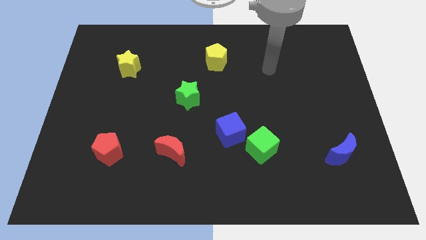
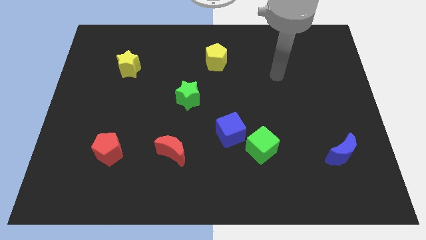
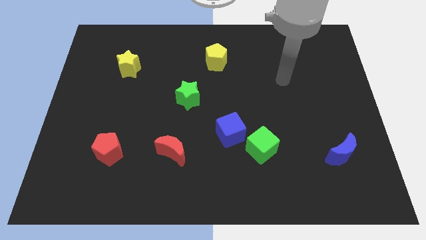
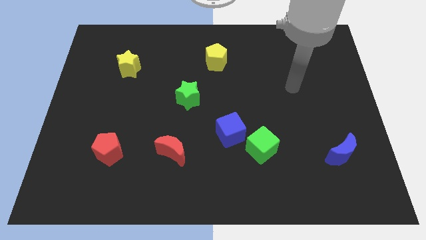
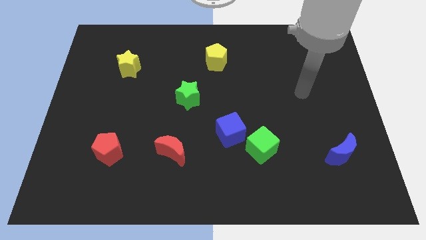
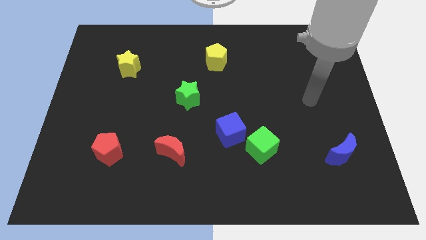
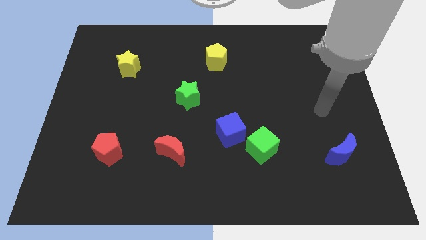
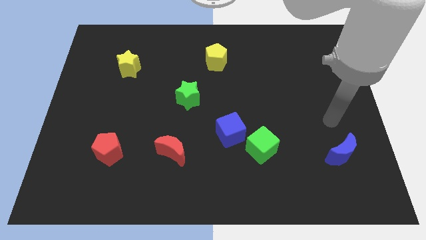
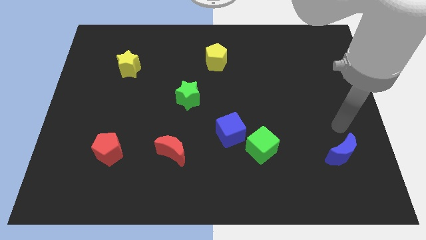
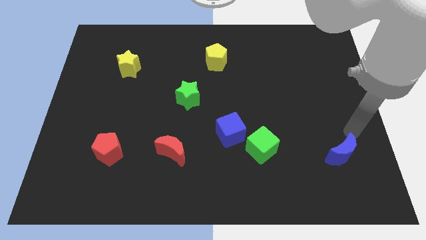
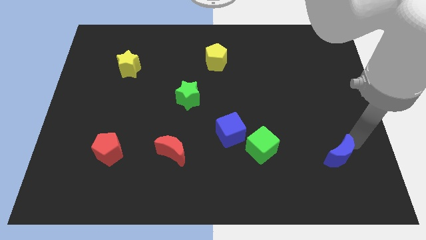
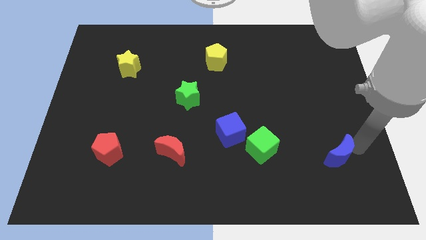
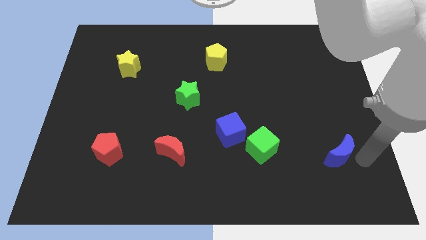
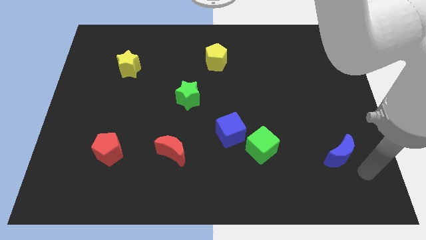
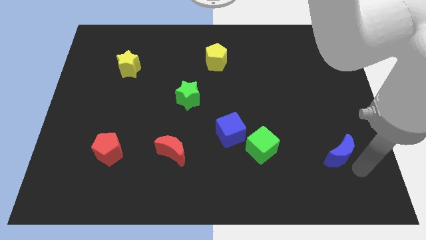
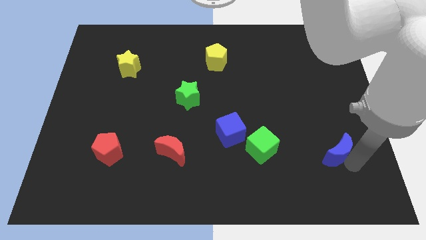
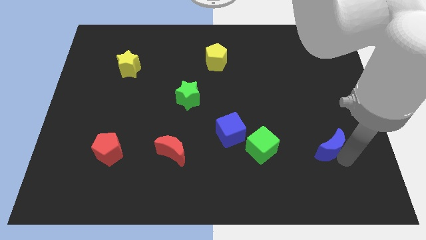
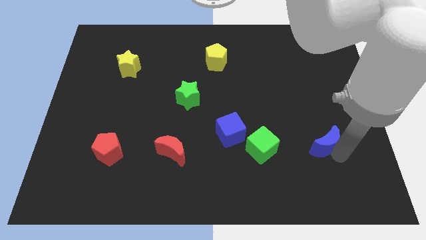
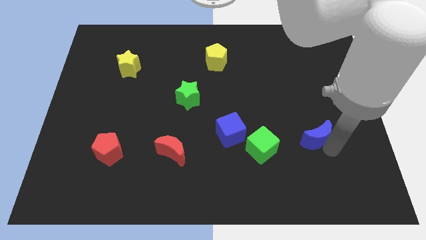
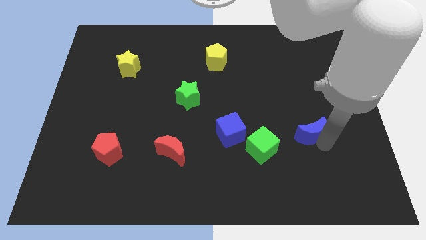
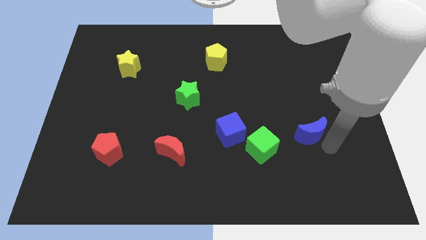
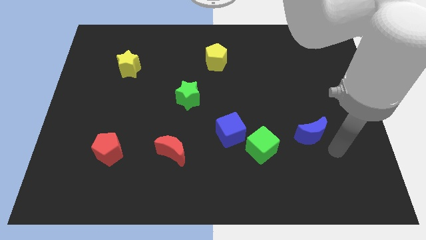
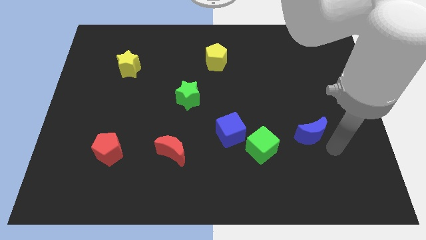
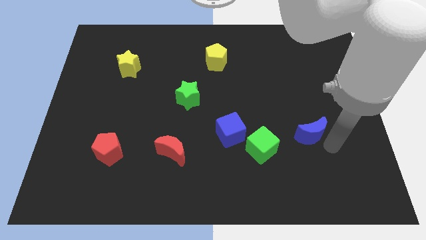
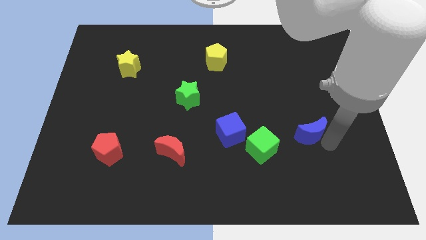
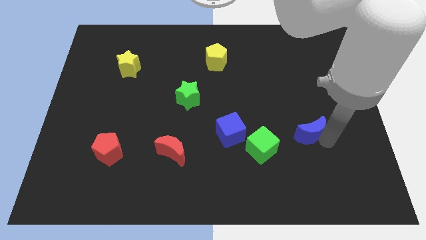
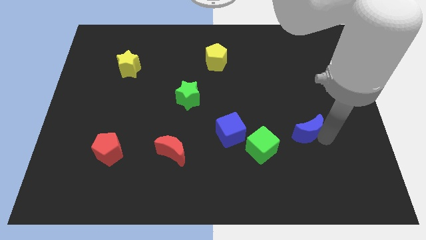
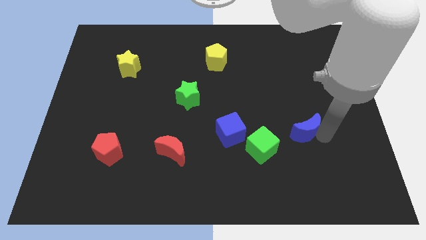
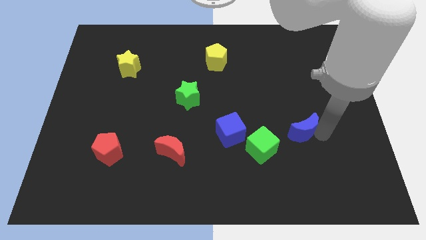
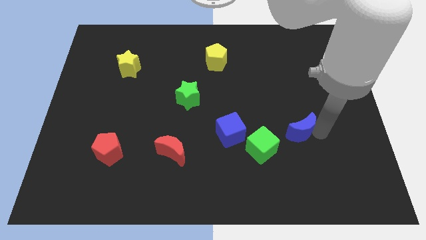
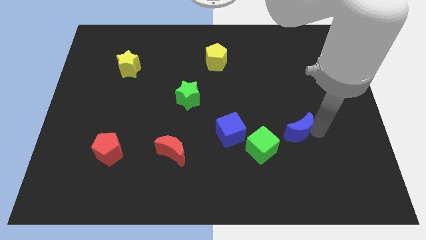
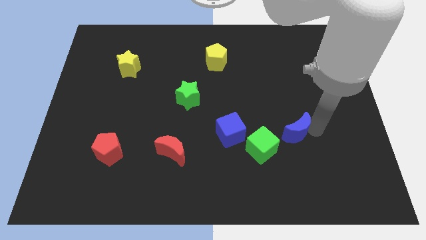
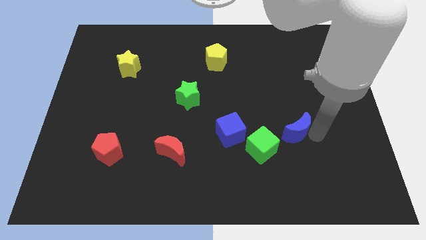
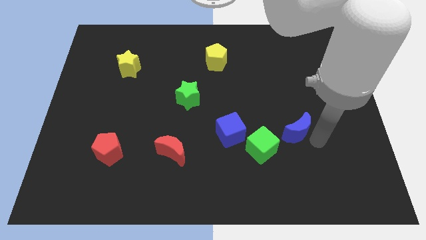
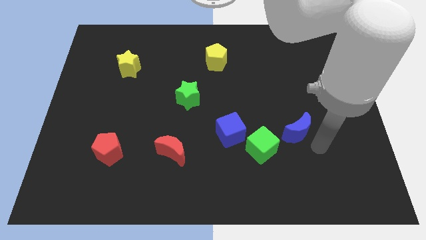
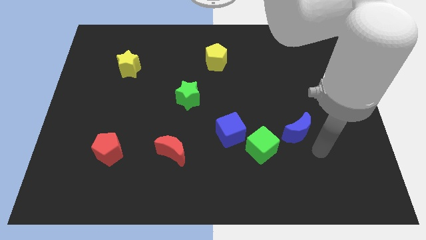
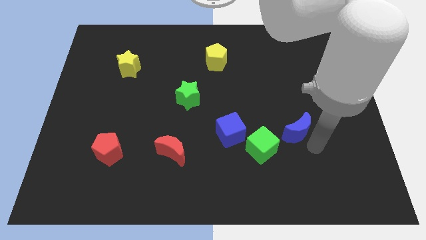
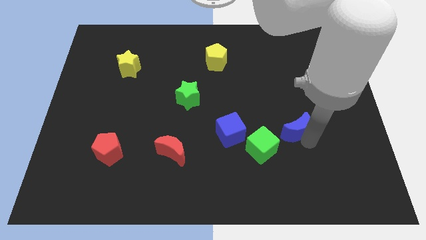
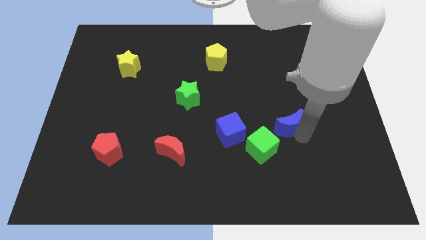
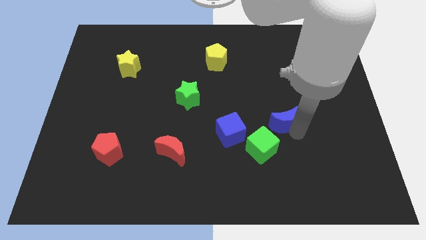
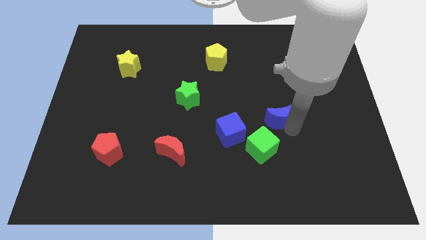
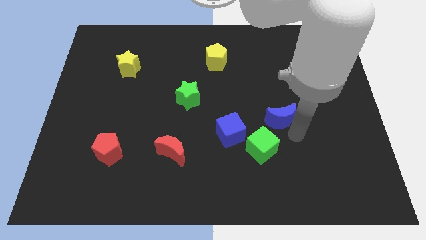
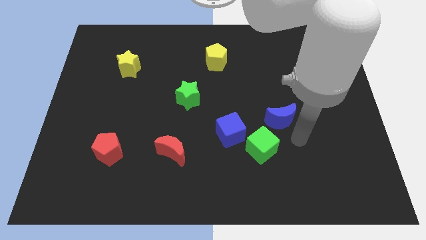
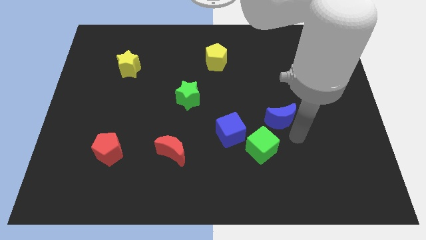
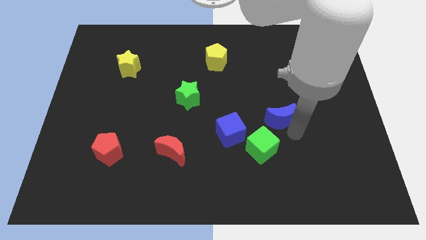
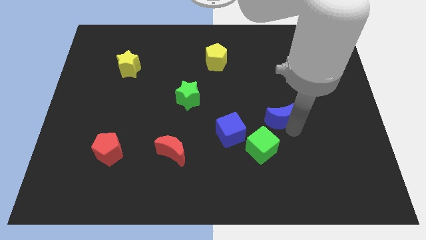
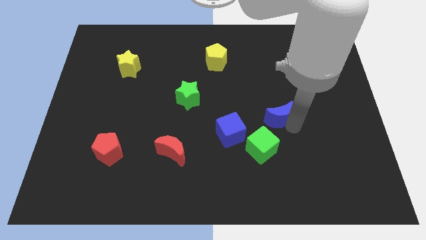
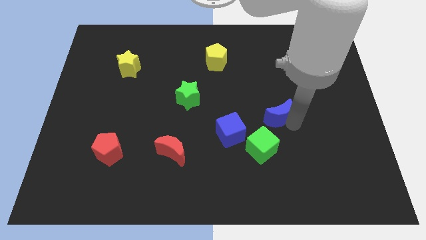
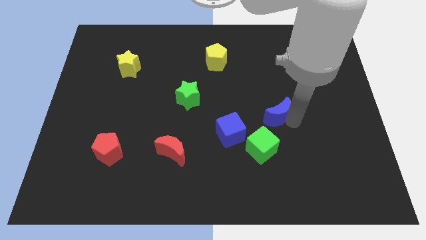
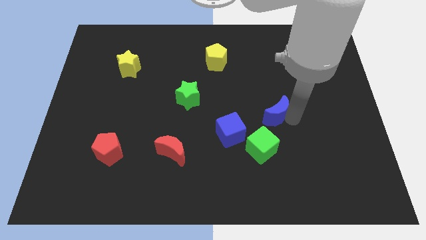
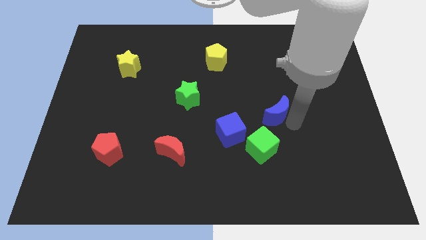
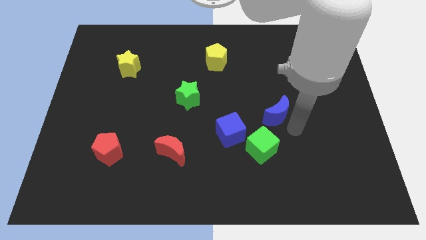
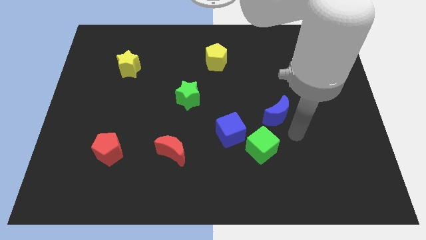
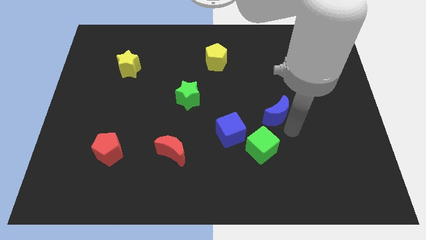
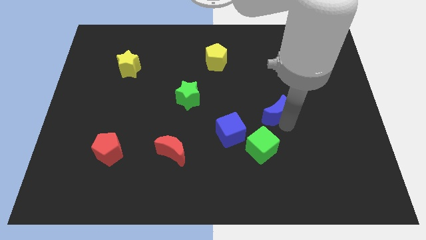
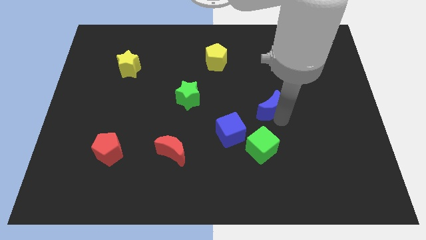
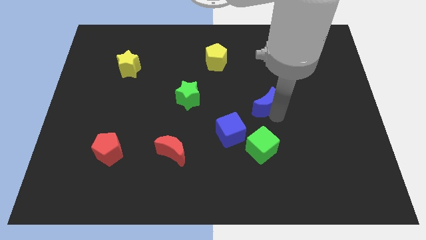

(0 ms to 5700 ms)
slide the blue moon diagonally upwards and left

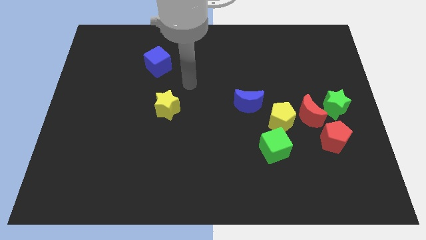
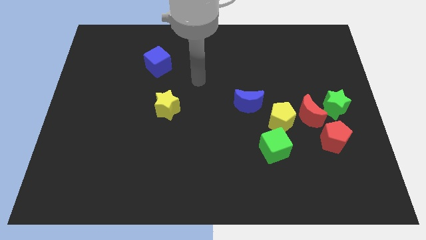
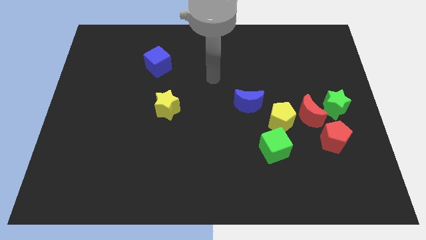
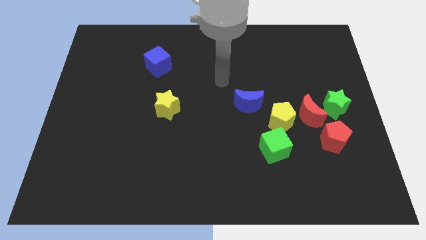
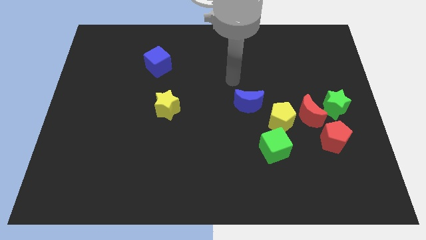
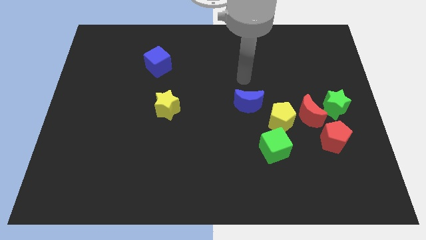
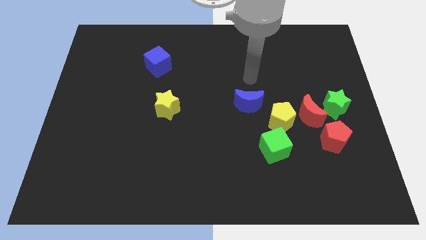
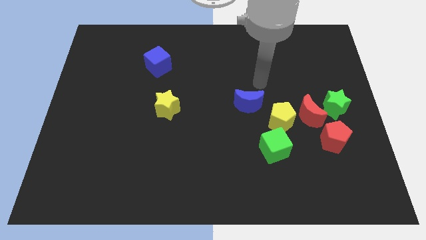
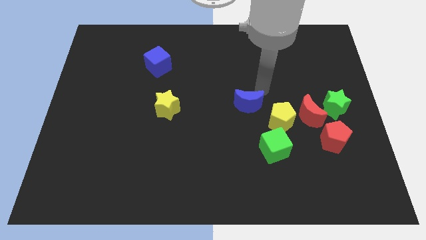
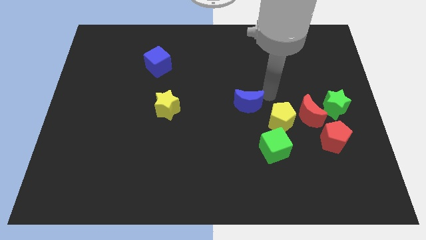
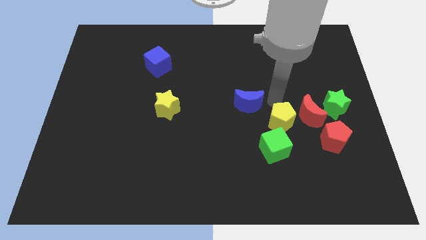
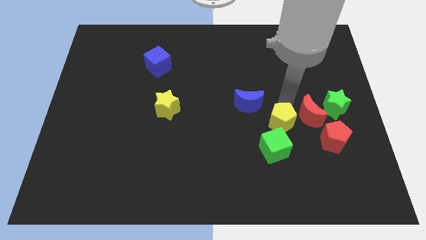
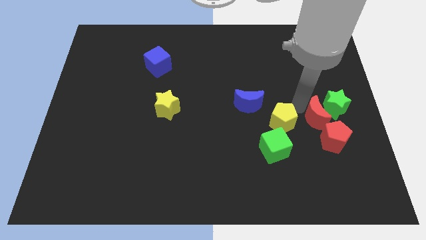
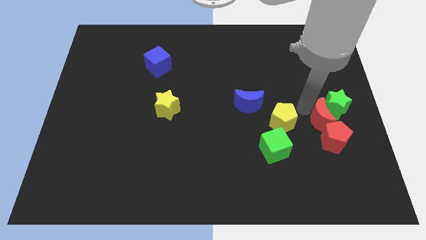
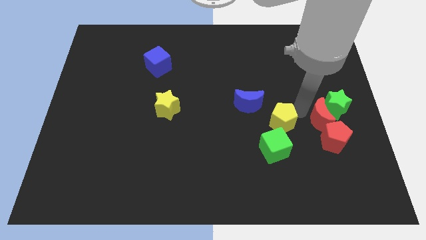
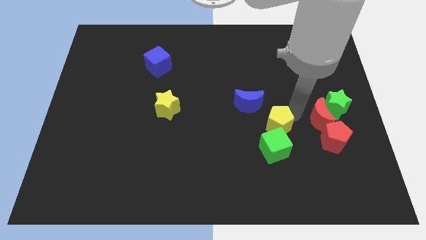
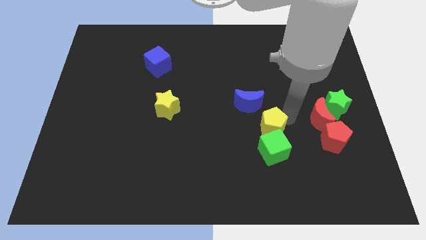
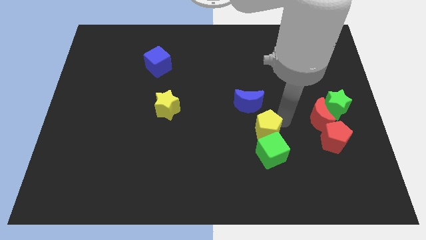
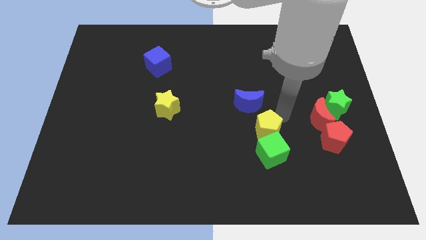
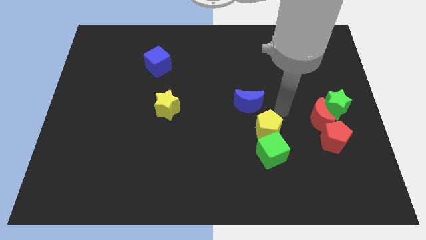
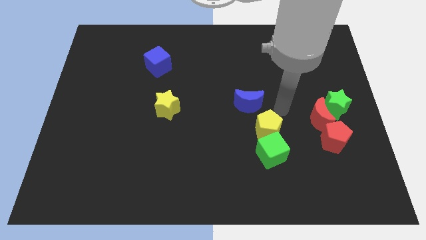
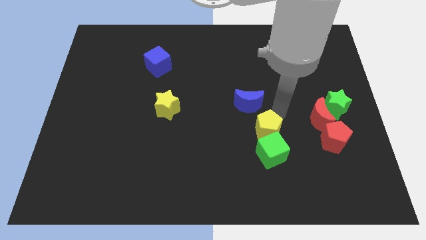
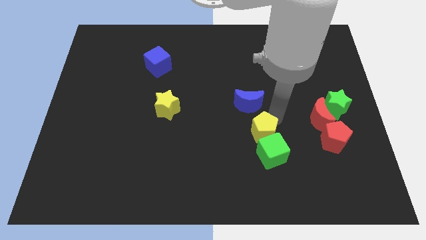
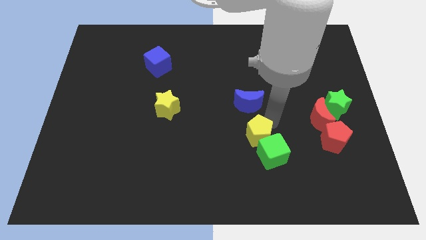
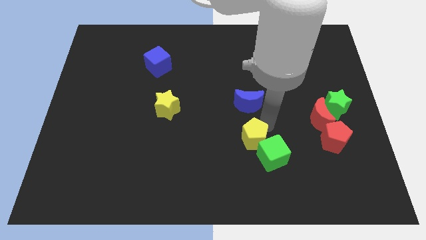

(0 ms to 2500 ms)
move the yellow pentagon slightly downwards and to the left diagonally
